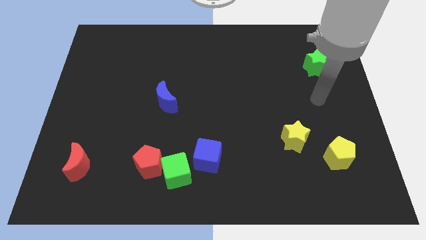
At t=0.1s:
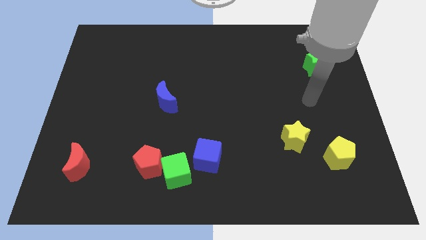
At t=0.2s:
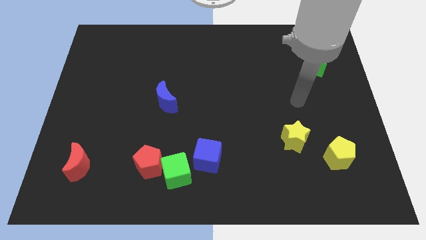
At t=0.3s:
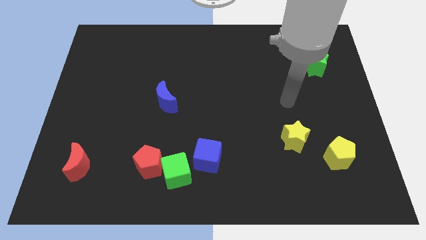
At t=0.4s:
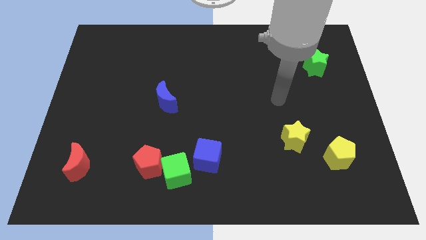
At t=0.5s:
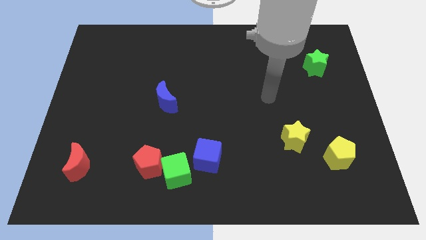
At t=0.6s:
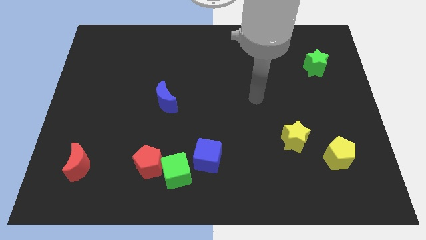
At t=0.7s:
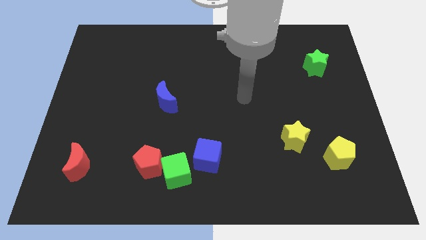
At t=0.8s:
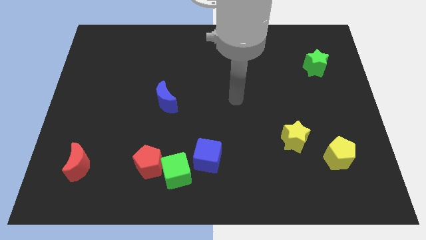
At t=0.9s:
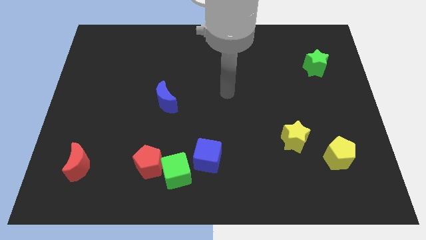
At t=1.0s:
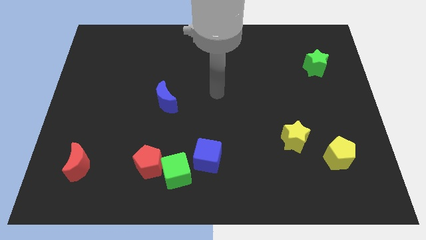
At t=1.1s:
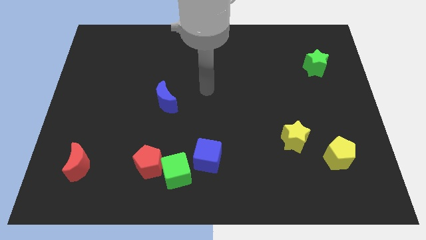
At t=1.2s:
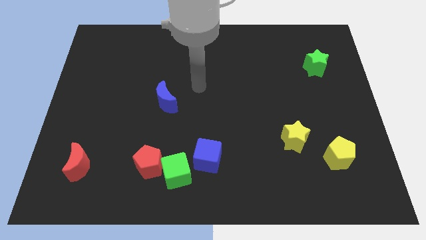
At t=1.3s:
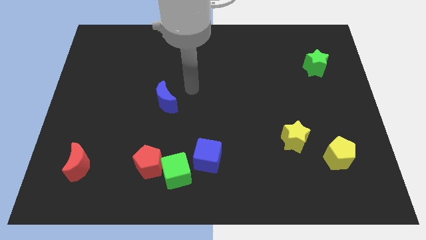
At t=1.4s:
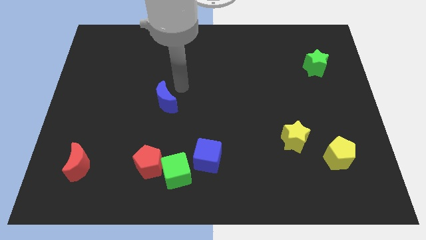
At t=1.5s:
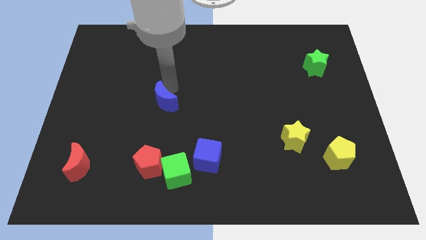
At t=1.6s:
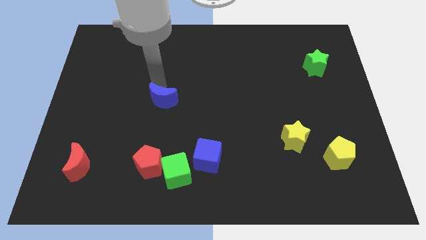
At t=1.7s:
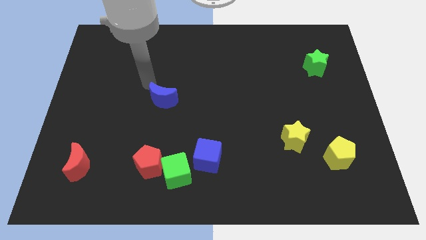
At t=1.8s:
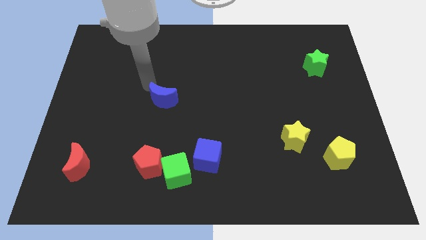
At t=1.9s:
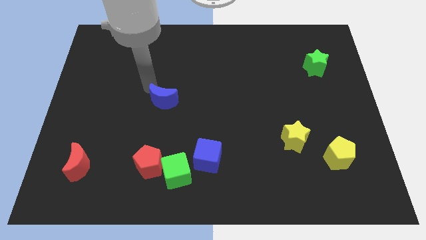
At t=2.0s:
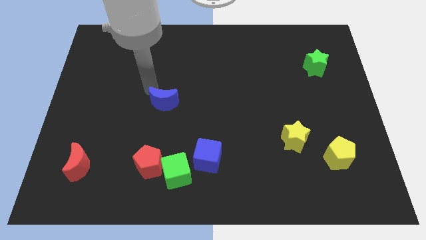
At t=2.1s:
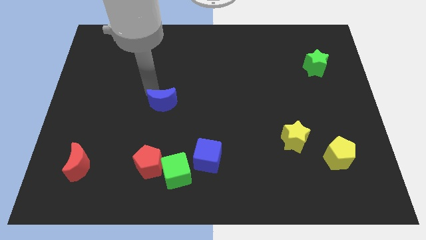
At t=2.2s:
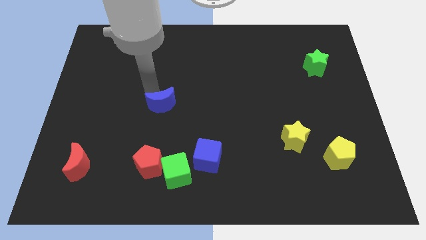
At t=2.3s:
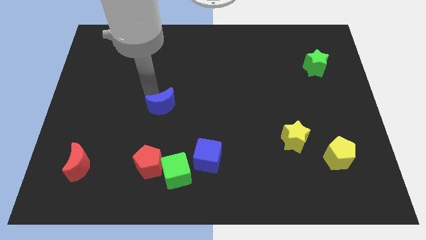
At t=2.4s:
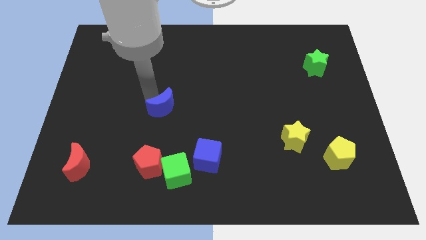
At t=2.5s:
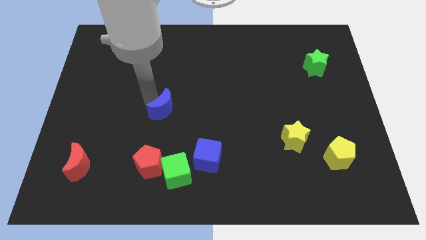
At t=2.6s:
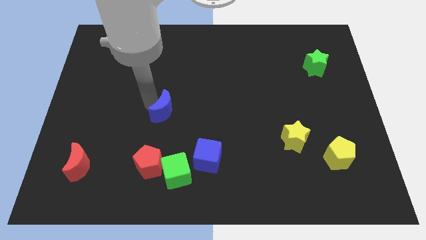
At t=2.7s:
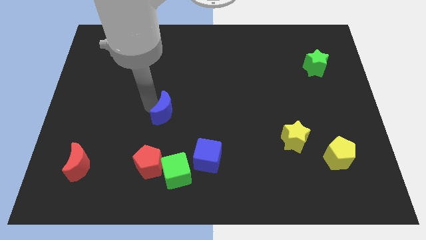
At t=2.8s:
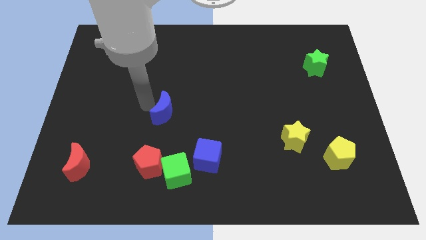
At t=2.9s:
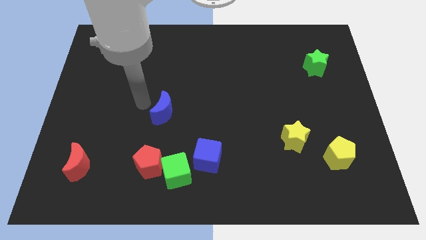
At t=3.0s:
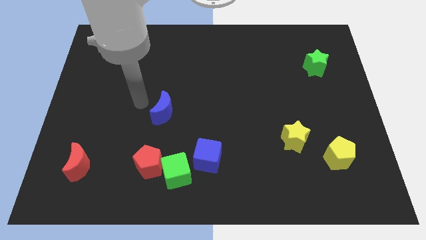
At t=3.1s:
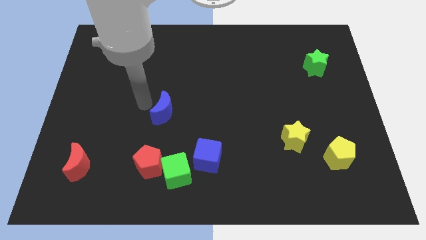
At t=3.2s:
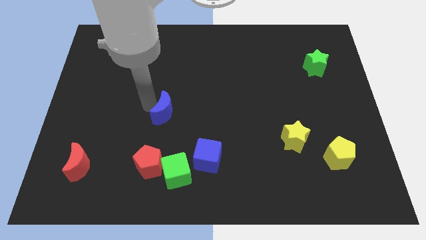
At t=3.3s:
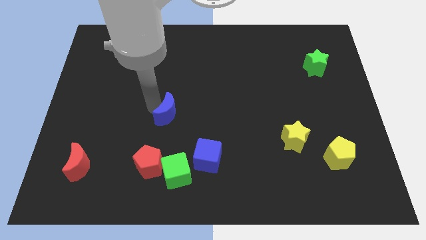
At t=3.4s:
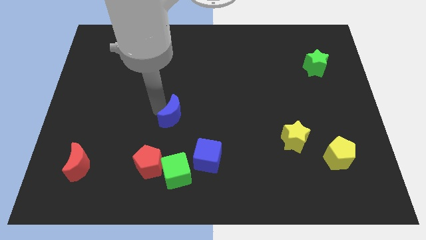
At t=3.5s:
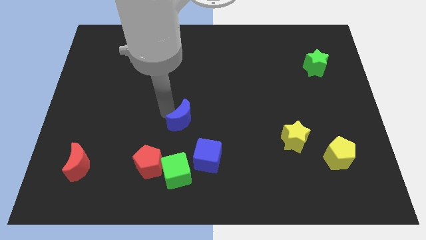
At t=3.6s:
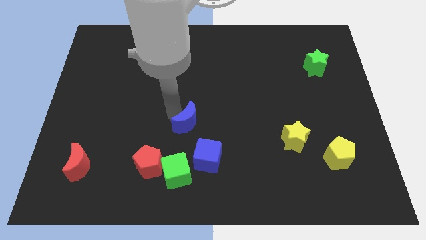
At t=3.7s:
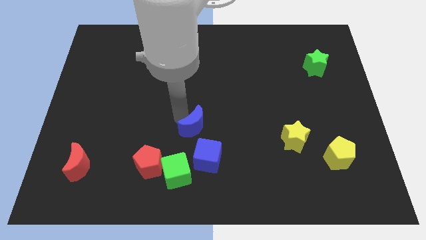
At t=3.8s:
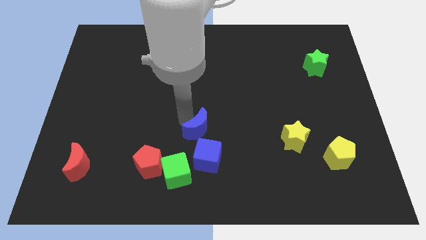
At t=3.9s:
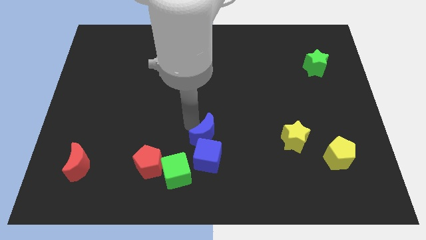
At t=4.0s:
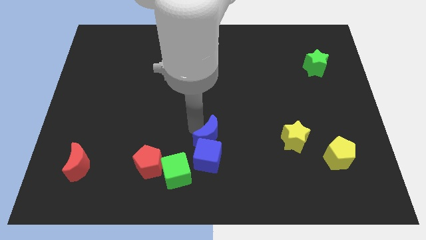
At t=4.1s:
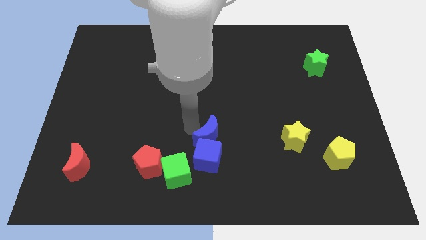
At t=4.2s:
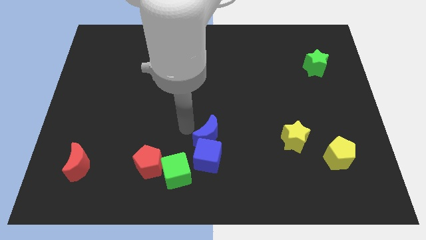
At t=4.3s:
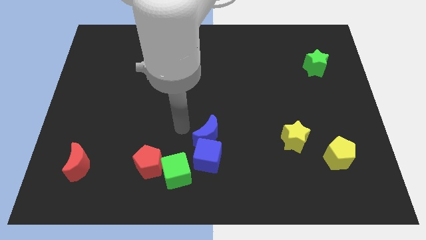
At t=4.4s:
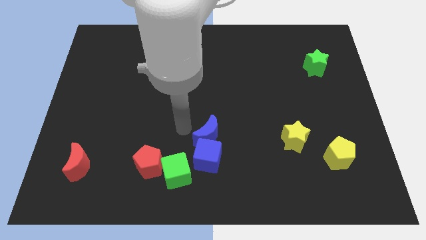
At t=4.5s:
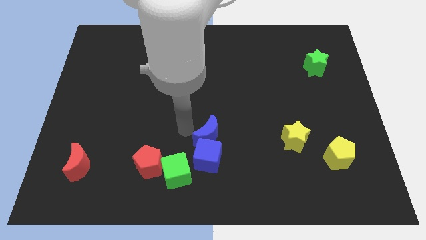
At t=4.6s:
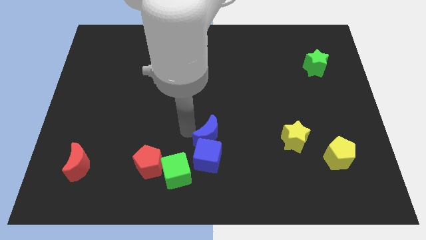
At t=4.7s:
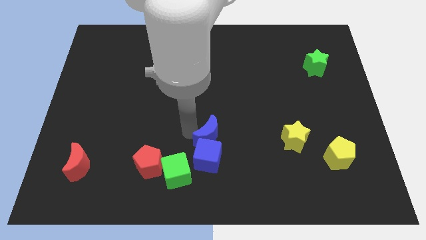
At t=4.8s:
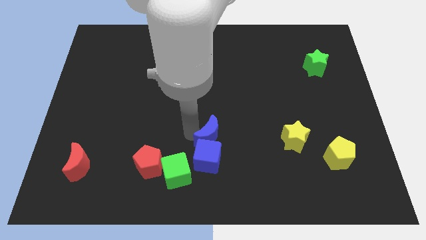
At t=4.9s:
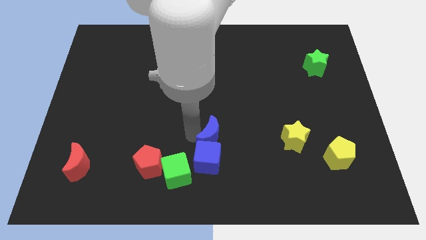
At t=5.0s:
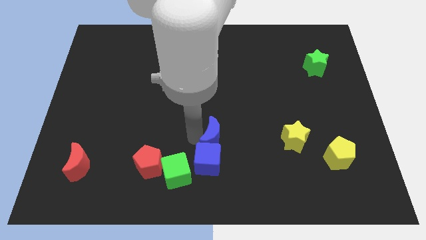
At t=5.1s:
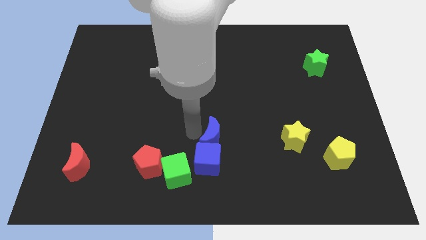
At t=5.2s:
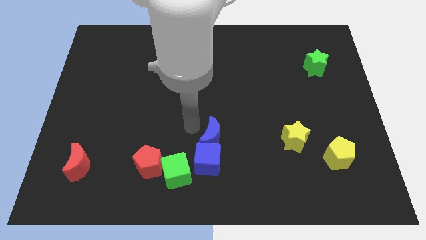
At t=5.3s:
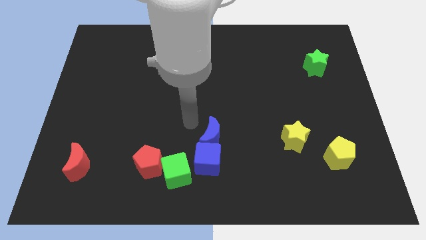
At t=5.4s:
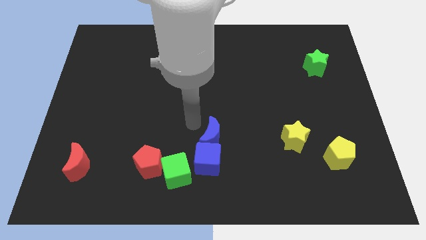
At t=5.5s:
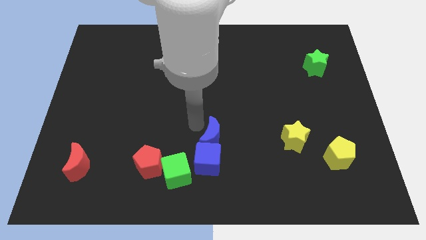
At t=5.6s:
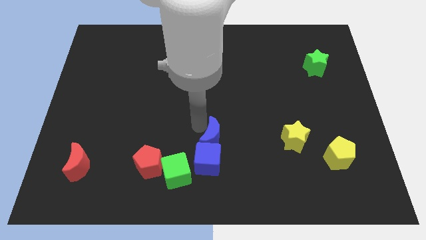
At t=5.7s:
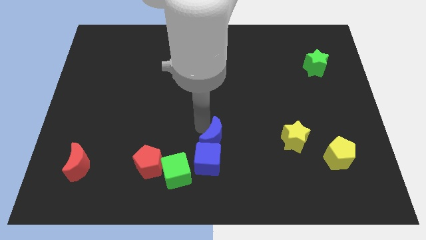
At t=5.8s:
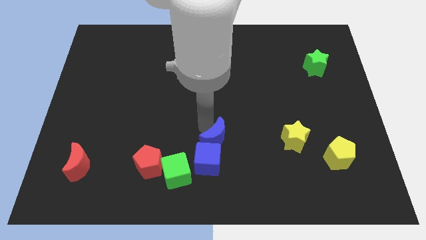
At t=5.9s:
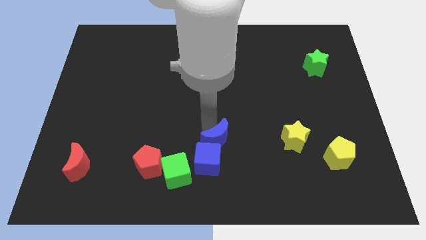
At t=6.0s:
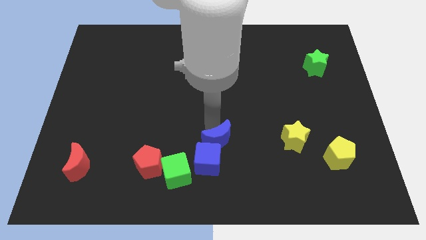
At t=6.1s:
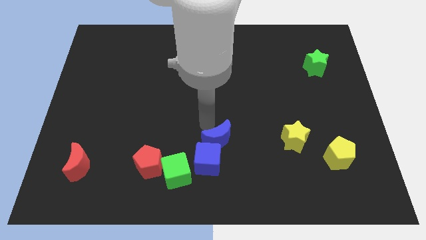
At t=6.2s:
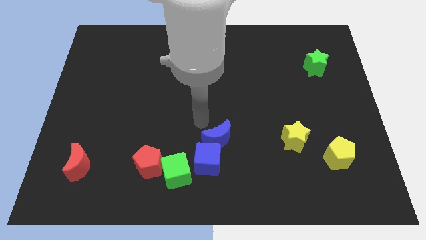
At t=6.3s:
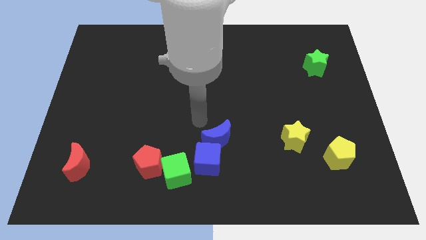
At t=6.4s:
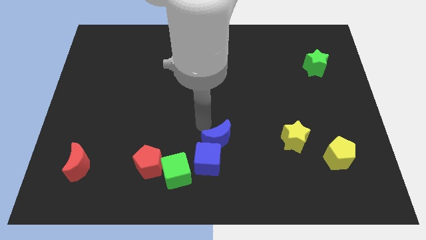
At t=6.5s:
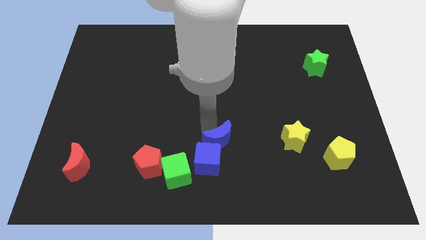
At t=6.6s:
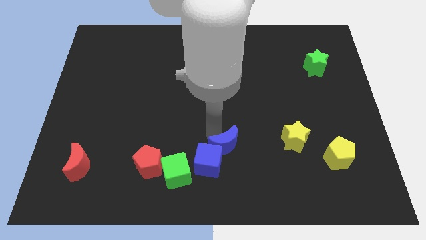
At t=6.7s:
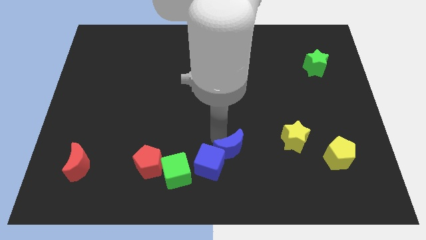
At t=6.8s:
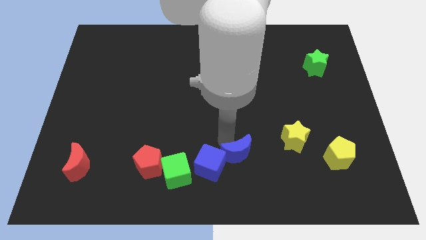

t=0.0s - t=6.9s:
put the blue moon just right of the green cube
